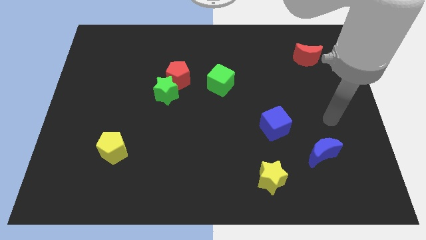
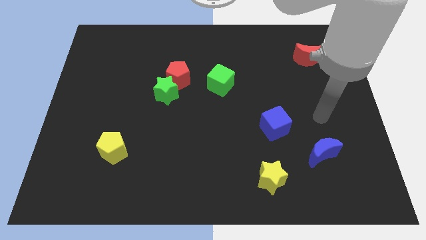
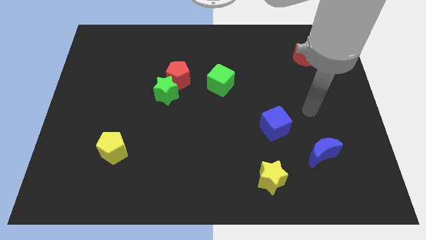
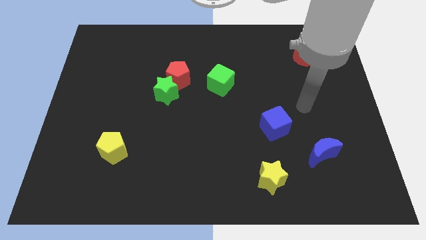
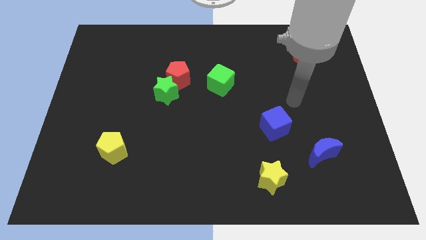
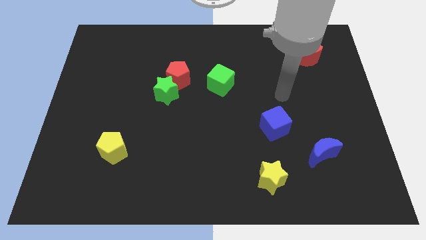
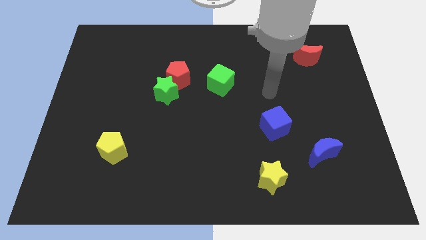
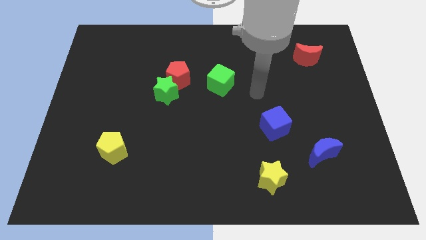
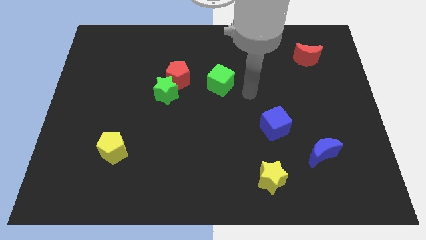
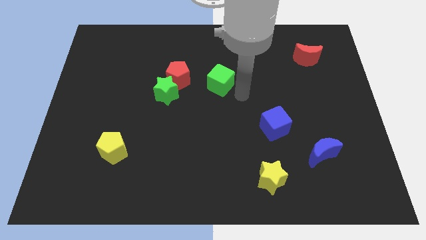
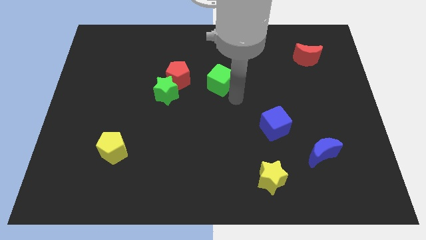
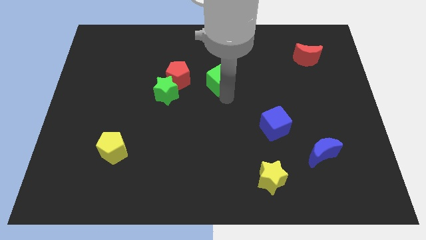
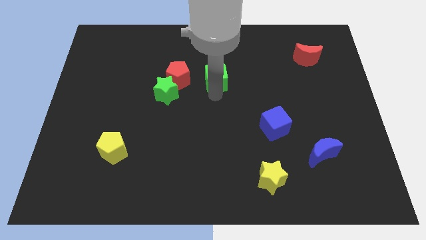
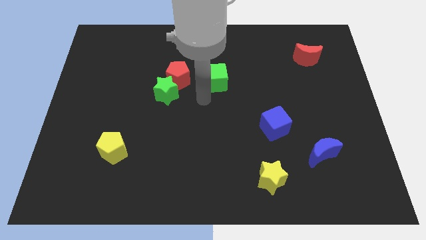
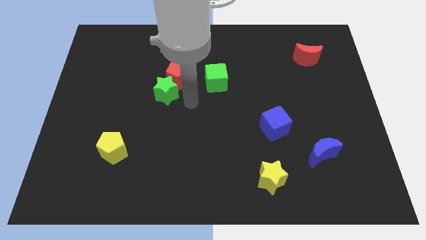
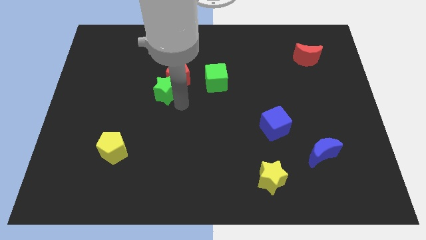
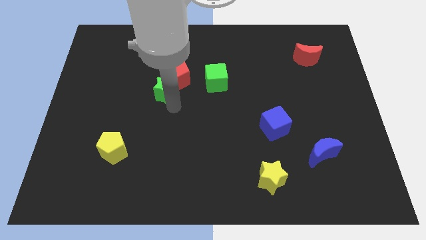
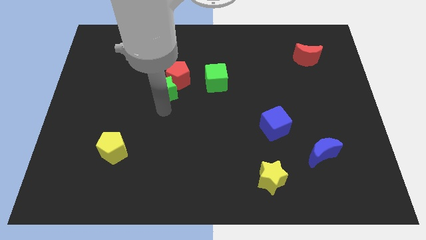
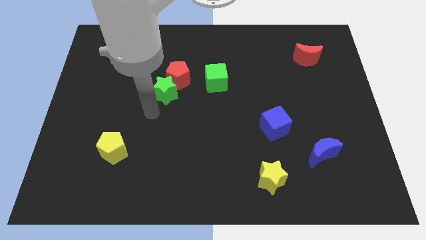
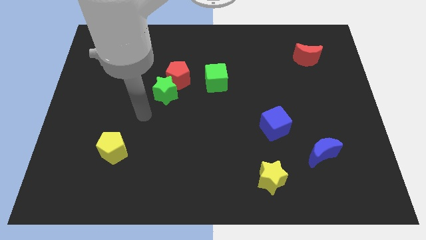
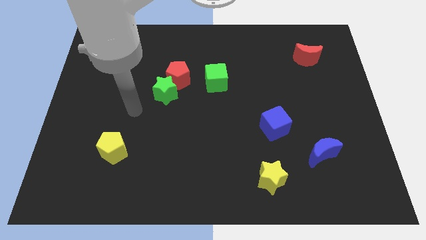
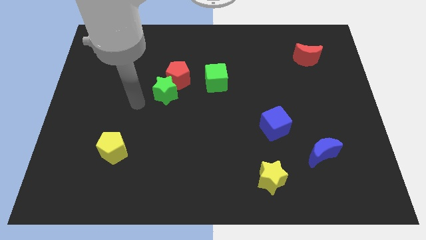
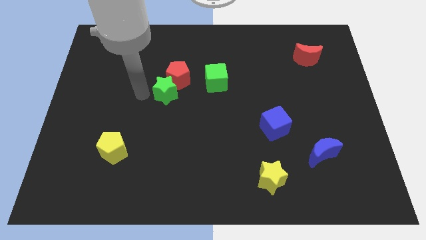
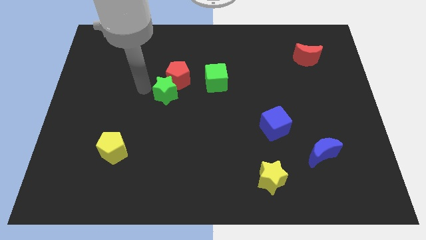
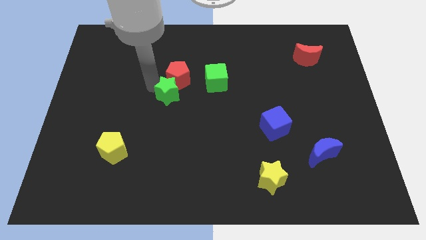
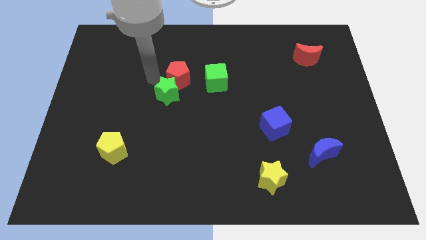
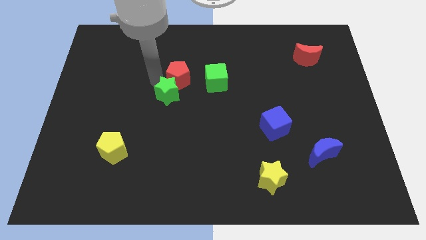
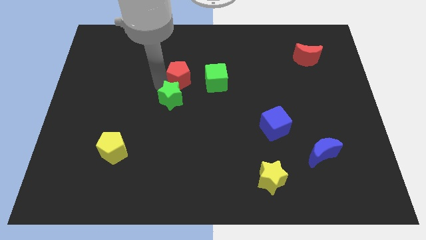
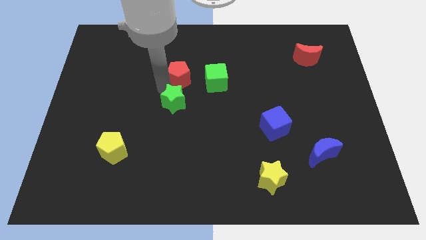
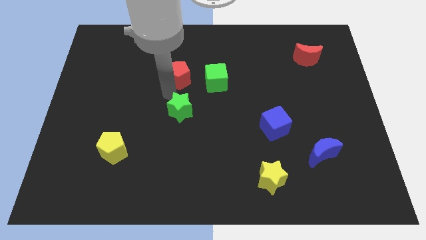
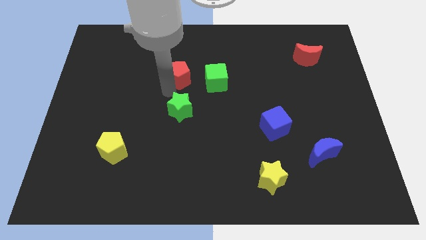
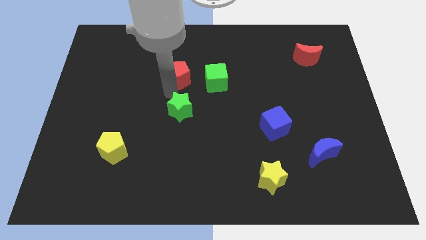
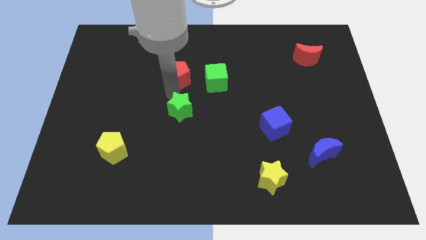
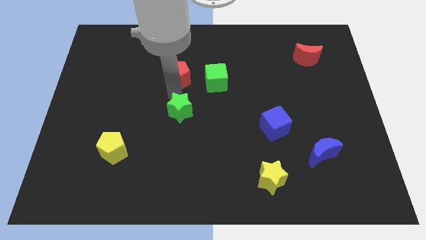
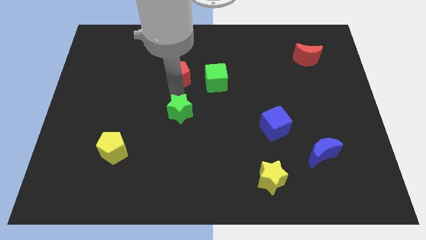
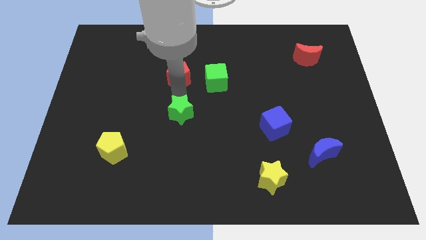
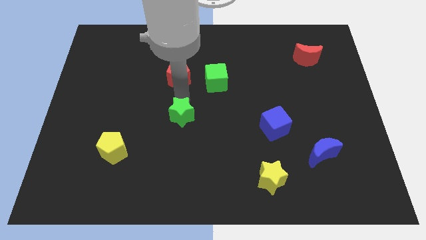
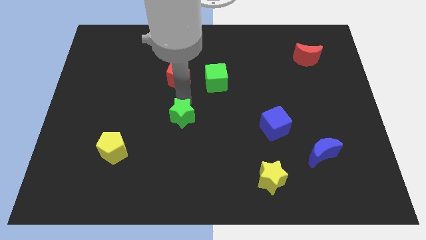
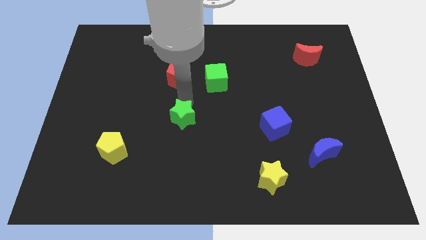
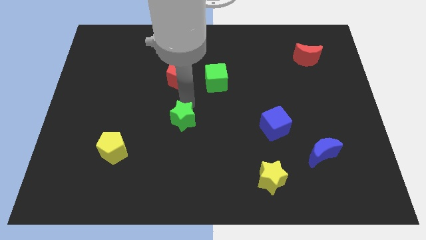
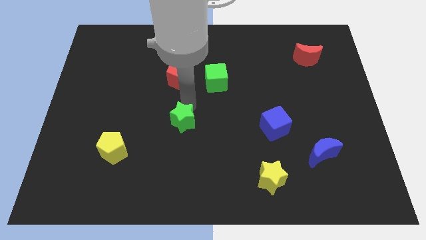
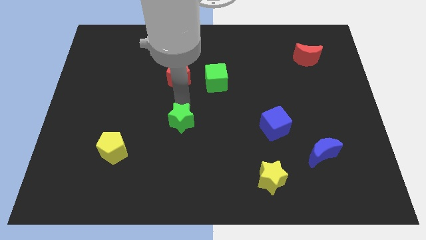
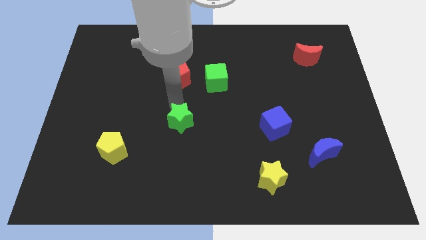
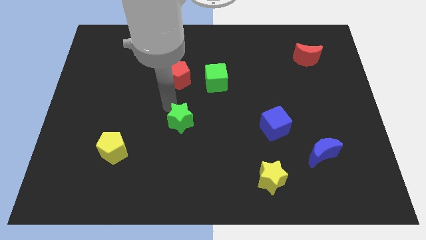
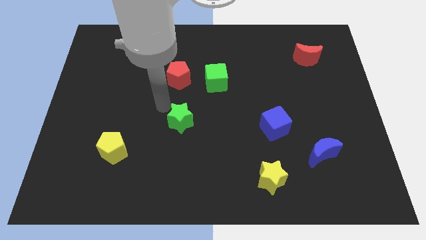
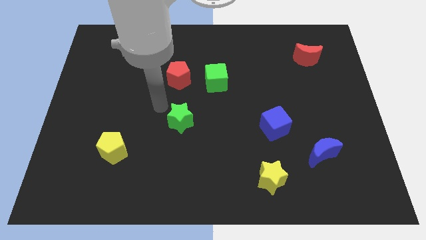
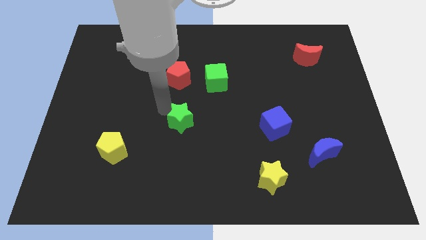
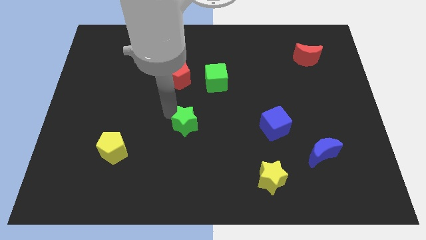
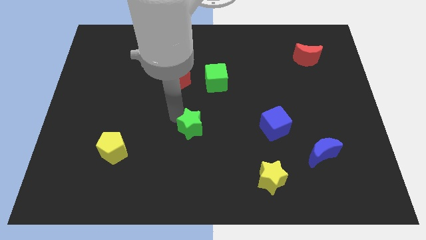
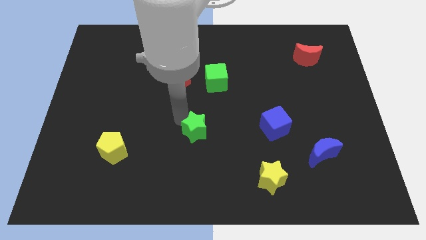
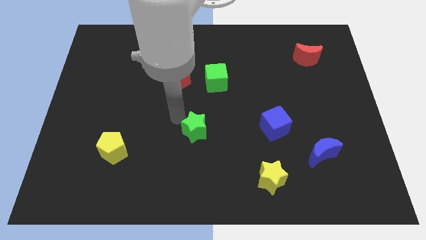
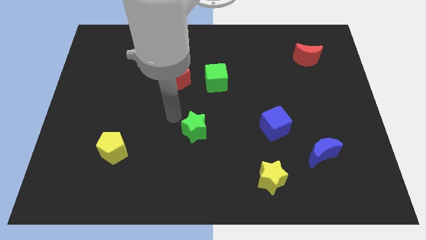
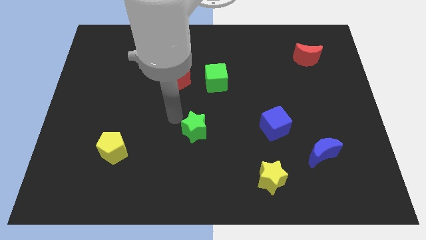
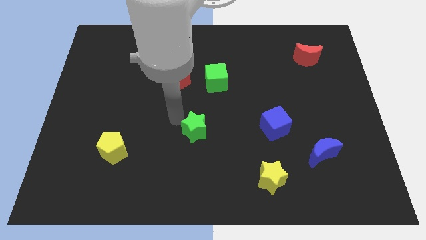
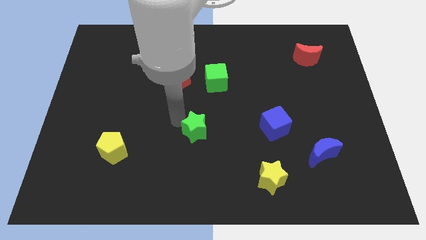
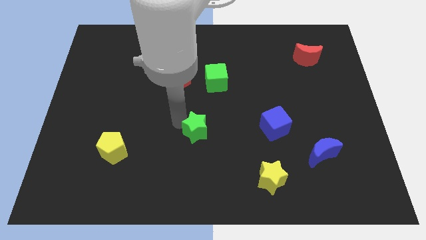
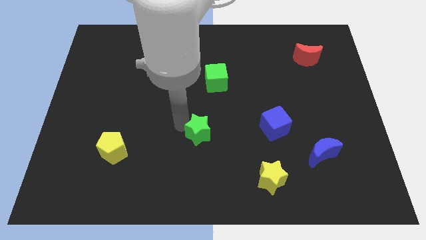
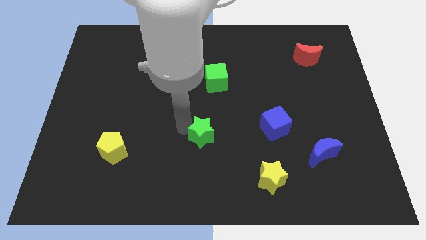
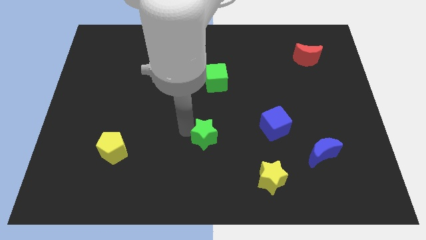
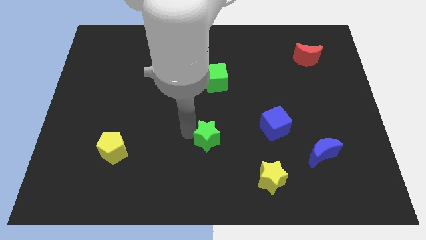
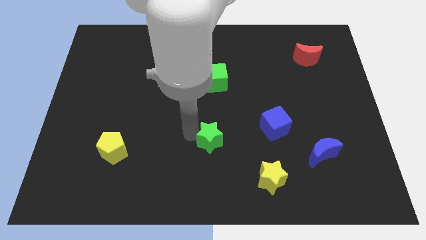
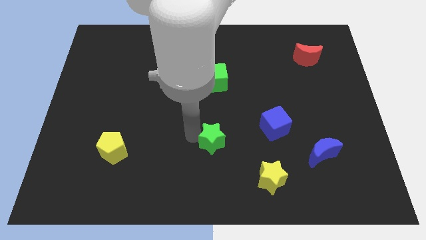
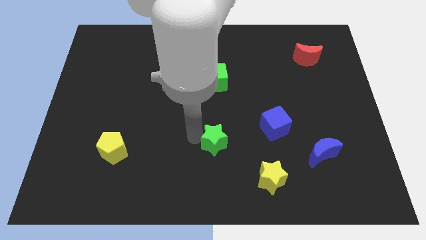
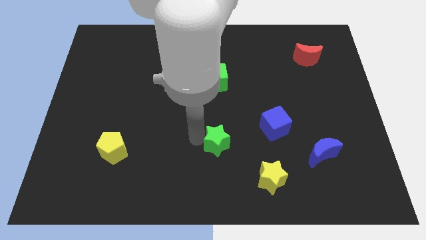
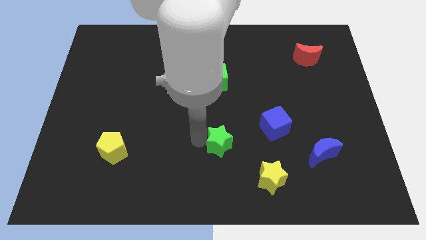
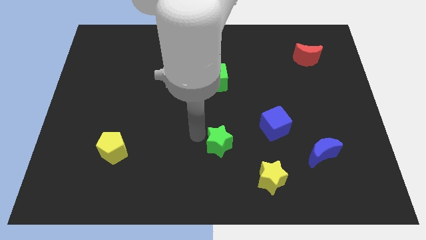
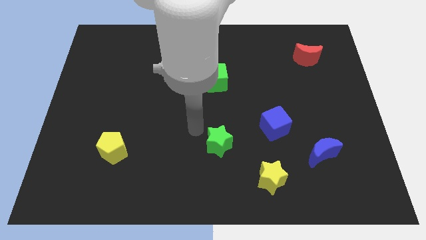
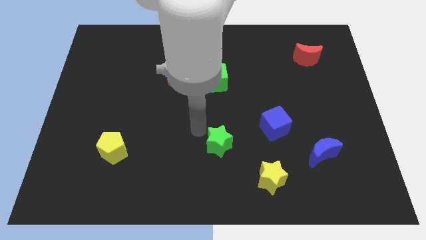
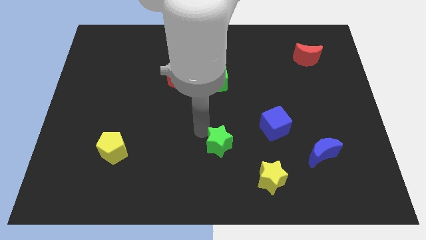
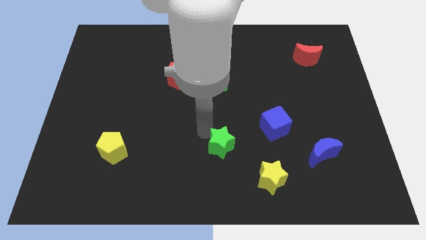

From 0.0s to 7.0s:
move the green star to the top left of the yellow star
